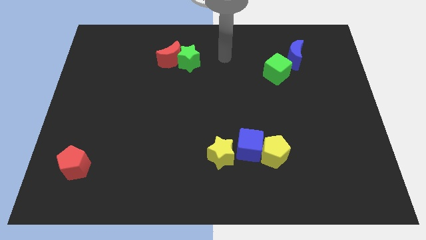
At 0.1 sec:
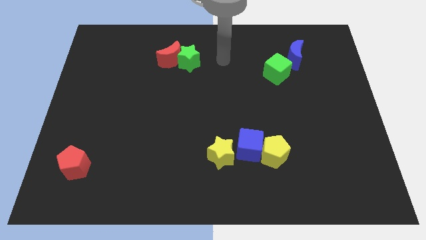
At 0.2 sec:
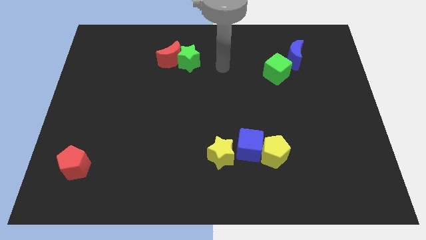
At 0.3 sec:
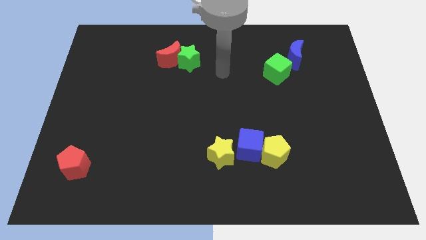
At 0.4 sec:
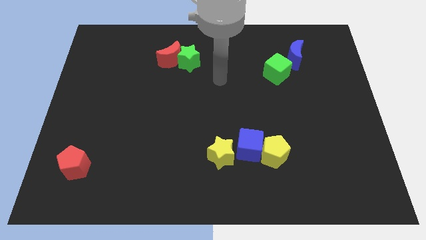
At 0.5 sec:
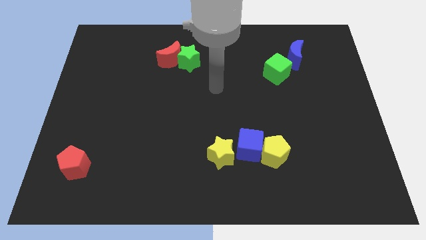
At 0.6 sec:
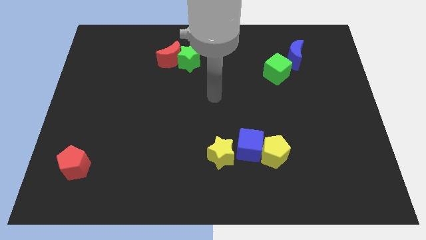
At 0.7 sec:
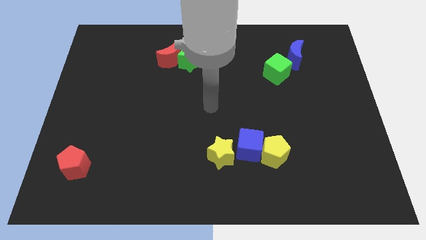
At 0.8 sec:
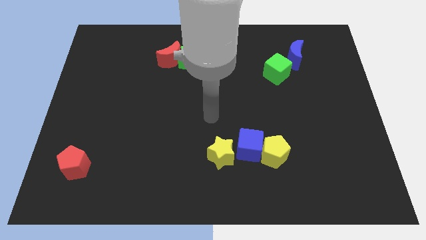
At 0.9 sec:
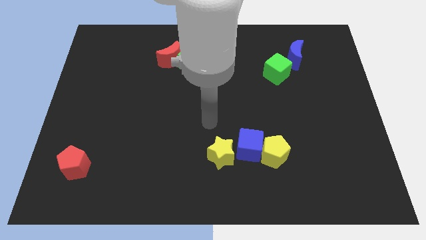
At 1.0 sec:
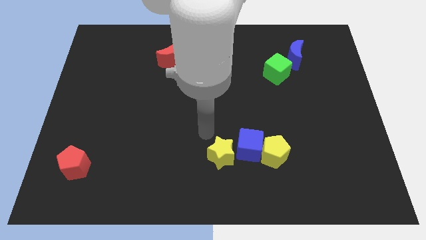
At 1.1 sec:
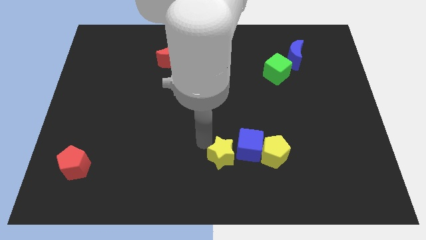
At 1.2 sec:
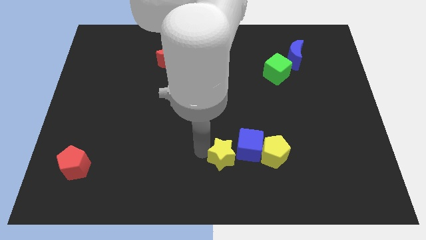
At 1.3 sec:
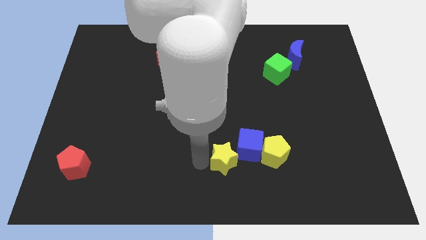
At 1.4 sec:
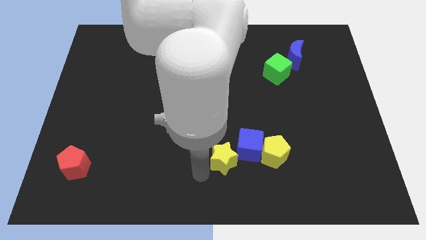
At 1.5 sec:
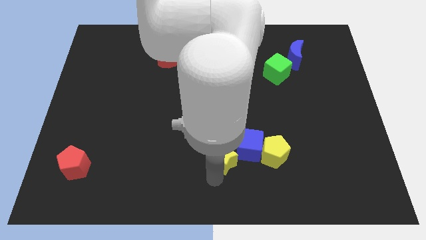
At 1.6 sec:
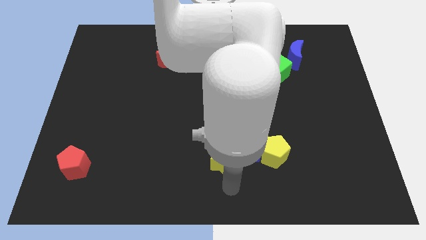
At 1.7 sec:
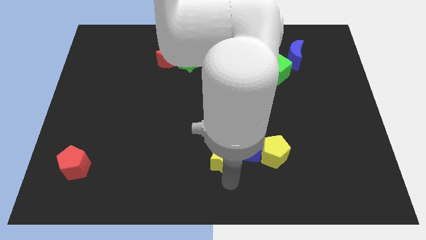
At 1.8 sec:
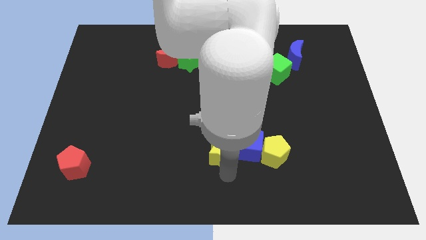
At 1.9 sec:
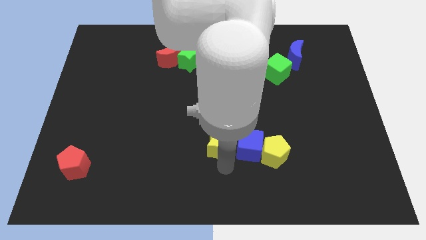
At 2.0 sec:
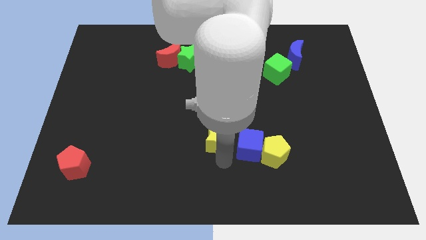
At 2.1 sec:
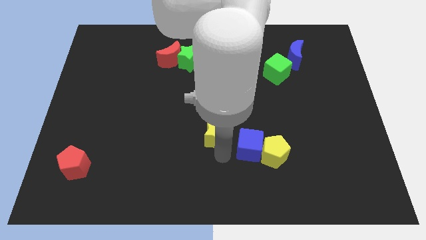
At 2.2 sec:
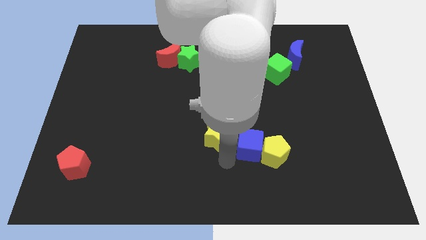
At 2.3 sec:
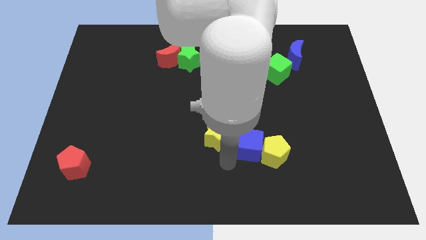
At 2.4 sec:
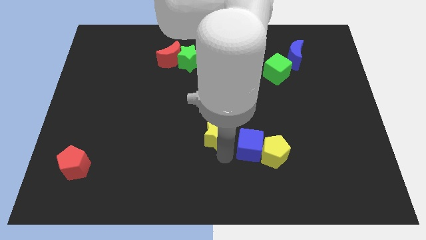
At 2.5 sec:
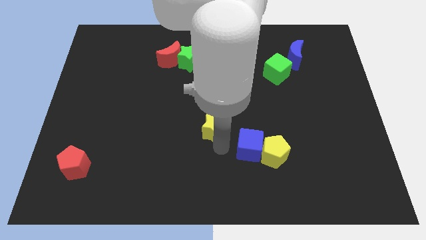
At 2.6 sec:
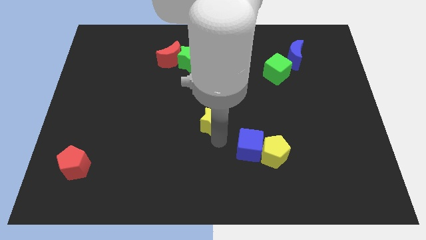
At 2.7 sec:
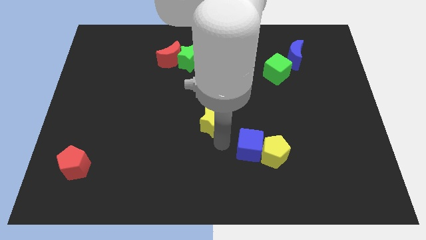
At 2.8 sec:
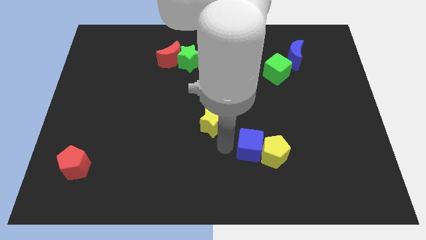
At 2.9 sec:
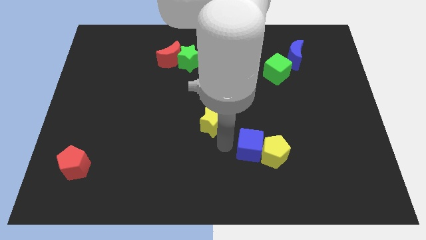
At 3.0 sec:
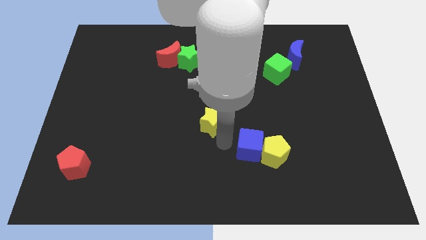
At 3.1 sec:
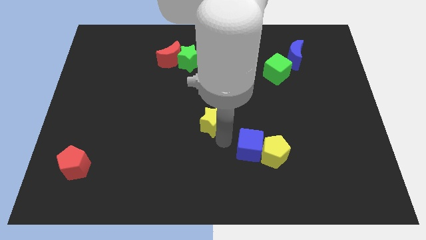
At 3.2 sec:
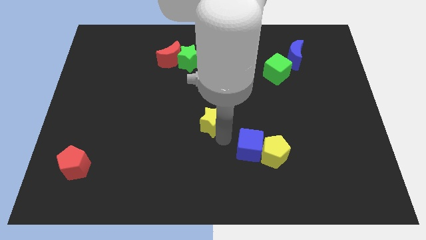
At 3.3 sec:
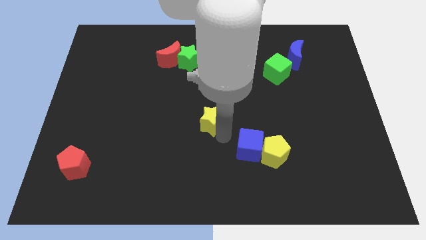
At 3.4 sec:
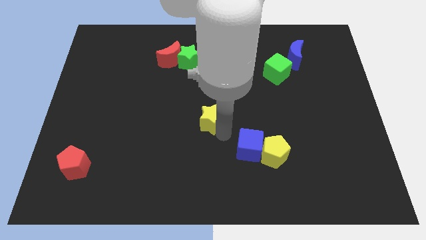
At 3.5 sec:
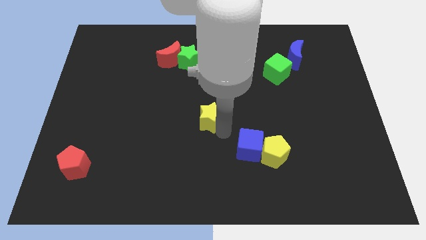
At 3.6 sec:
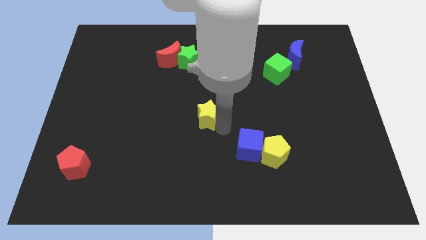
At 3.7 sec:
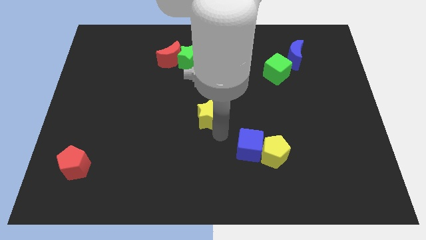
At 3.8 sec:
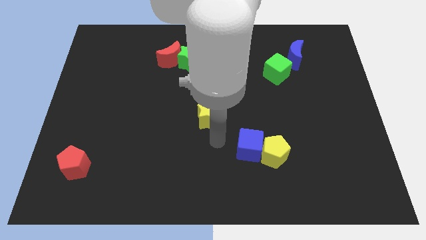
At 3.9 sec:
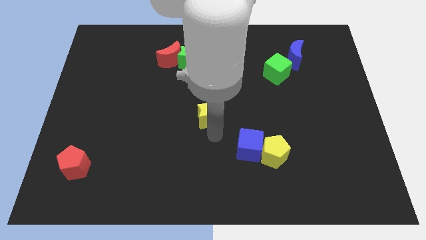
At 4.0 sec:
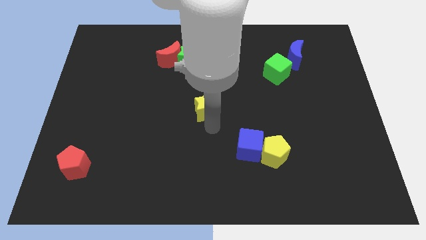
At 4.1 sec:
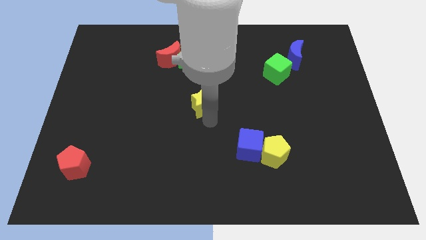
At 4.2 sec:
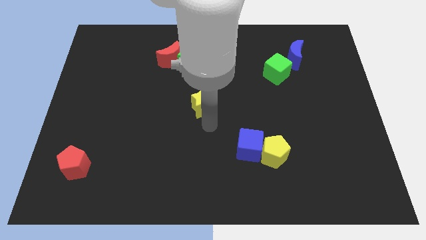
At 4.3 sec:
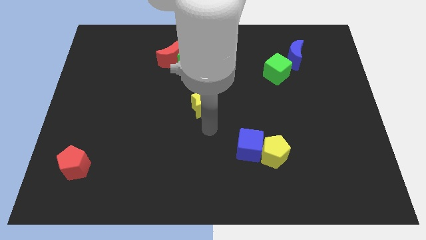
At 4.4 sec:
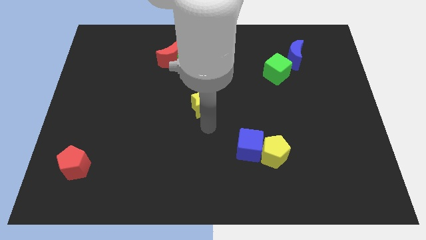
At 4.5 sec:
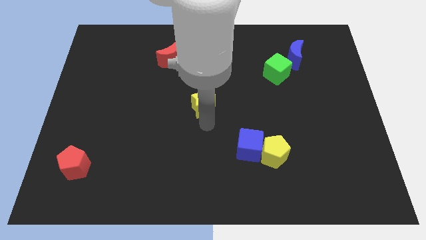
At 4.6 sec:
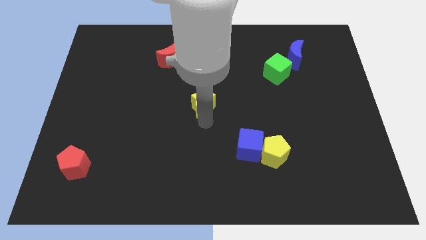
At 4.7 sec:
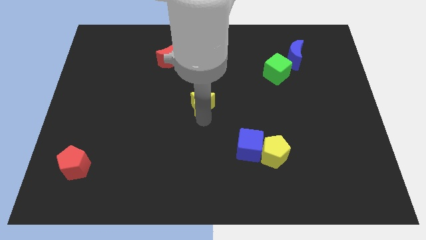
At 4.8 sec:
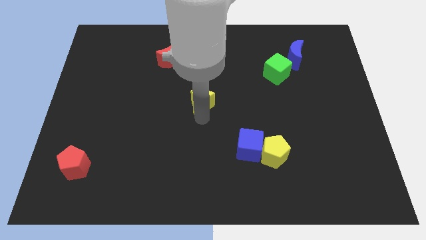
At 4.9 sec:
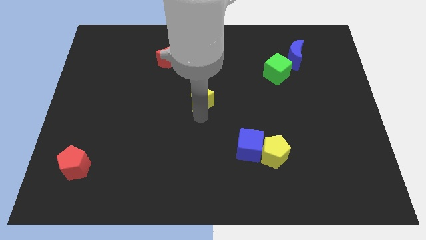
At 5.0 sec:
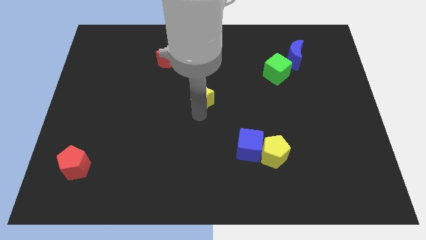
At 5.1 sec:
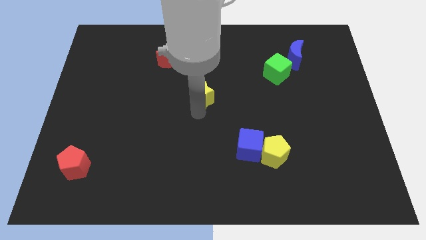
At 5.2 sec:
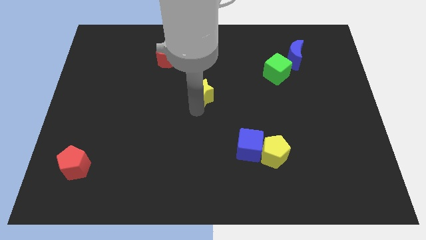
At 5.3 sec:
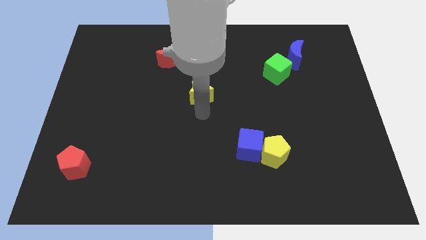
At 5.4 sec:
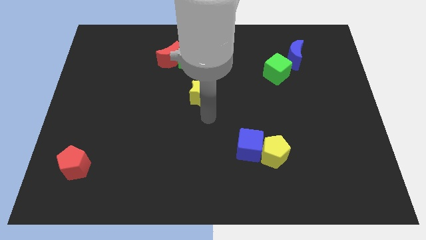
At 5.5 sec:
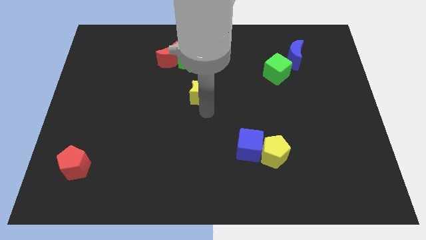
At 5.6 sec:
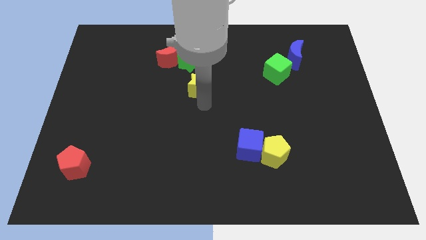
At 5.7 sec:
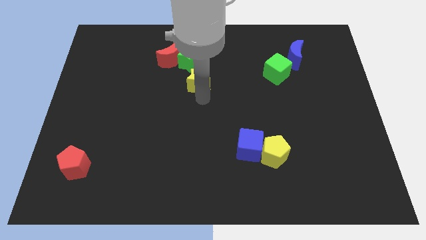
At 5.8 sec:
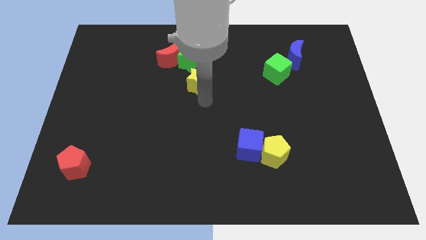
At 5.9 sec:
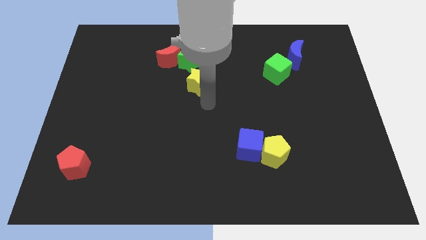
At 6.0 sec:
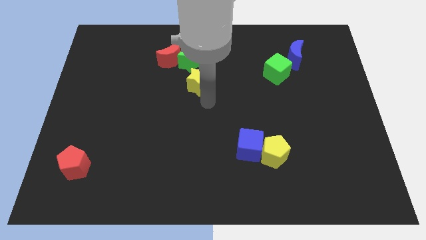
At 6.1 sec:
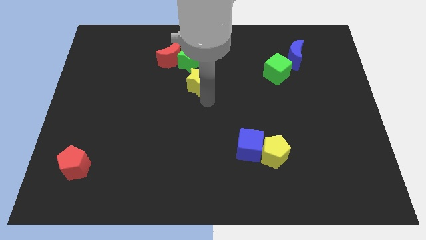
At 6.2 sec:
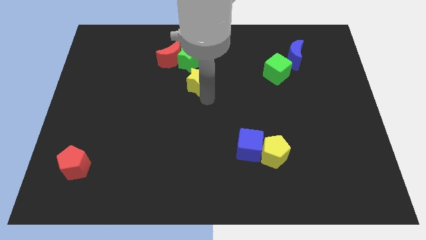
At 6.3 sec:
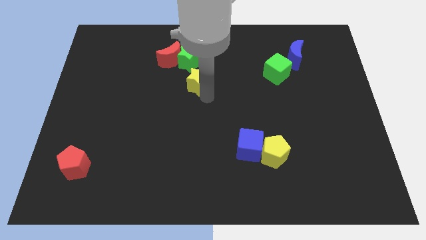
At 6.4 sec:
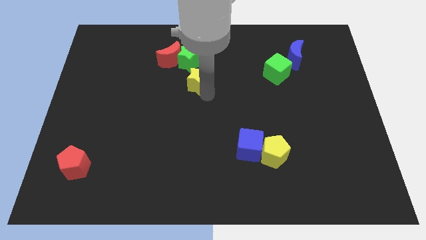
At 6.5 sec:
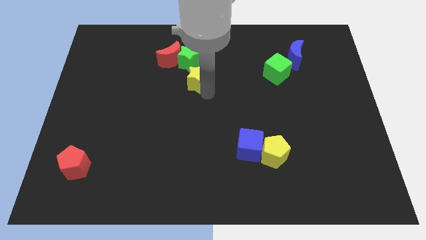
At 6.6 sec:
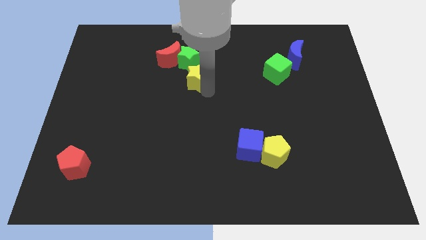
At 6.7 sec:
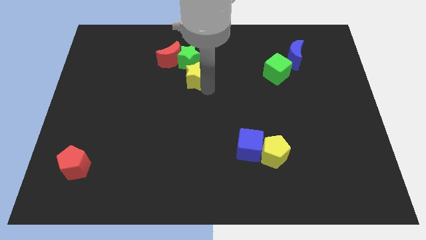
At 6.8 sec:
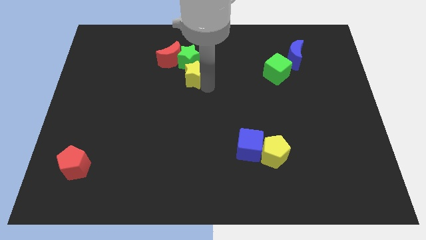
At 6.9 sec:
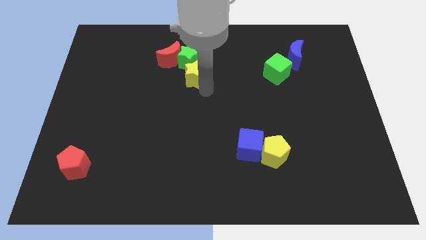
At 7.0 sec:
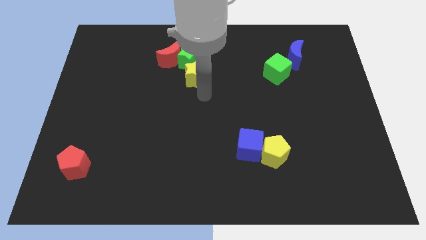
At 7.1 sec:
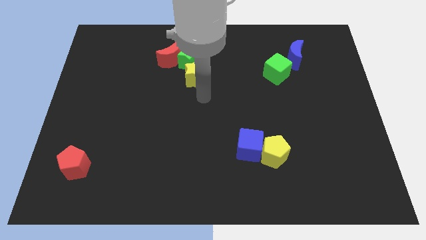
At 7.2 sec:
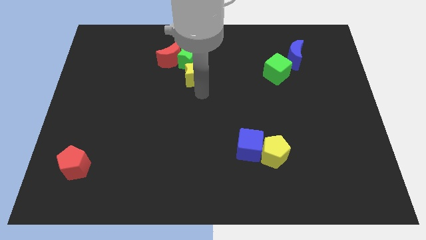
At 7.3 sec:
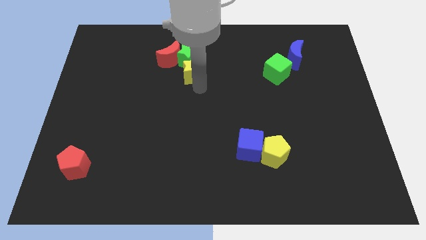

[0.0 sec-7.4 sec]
move the yellow star close to the green star
